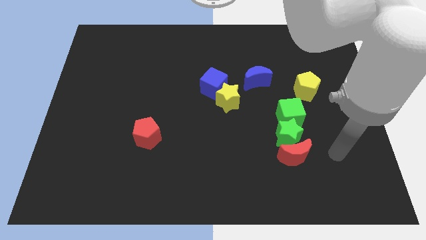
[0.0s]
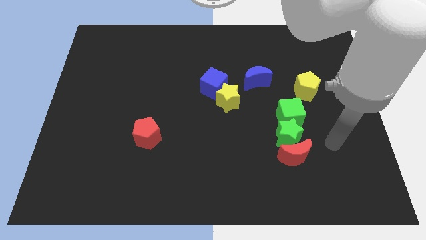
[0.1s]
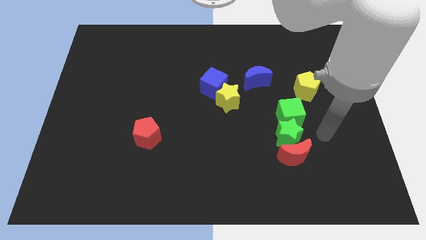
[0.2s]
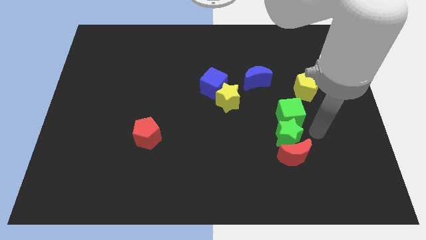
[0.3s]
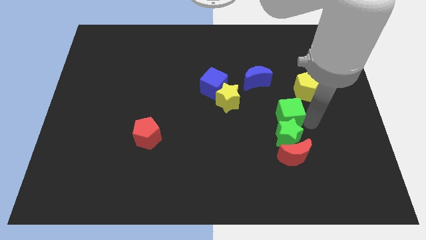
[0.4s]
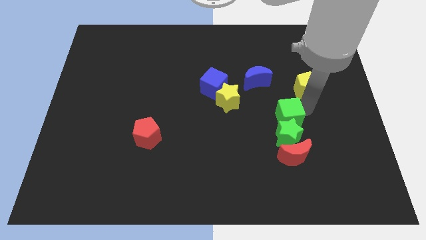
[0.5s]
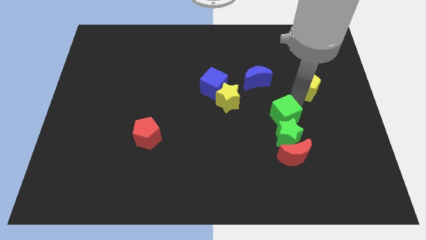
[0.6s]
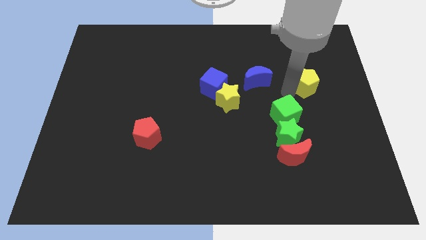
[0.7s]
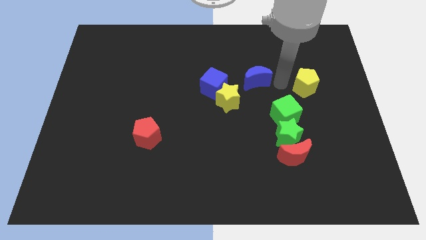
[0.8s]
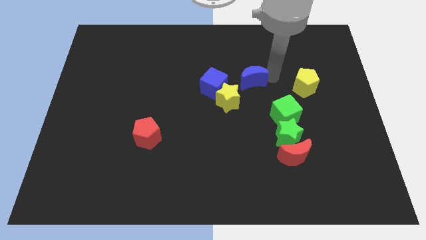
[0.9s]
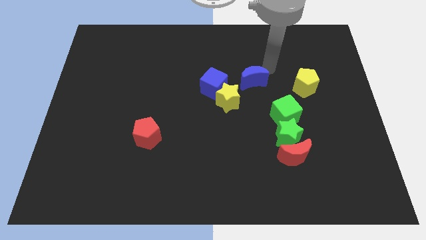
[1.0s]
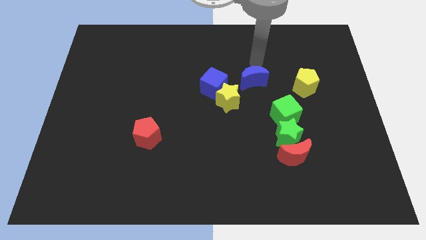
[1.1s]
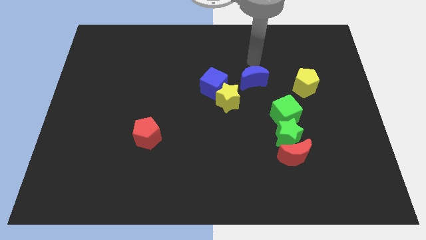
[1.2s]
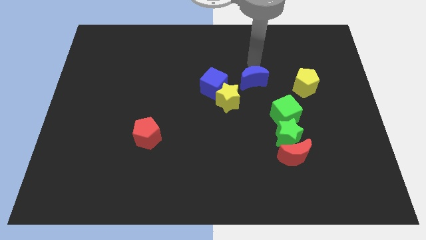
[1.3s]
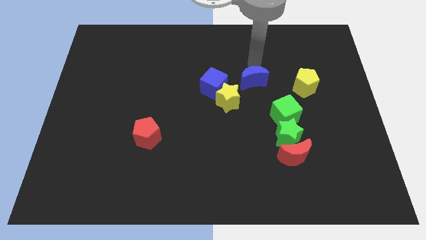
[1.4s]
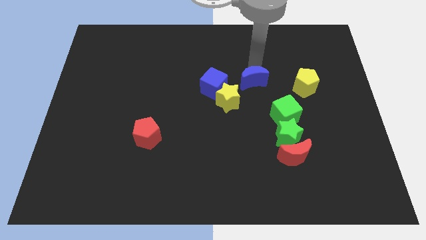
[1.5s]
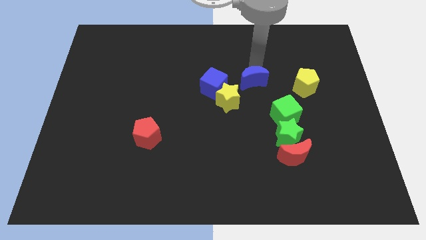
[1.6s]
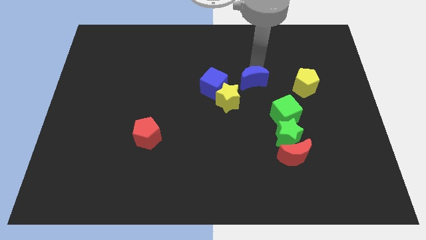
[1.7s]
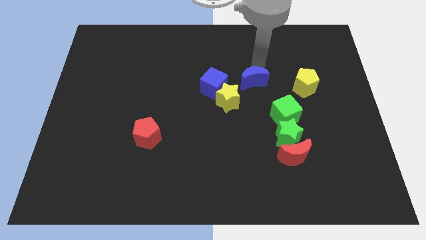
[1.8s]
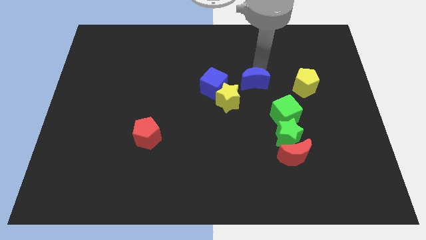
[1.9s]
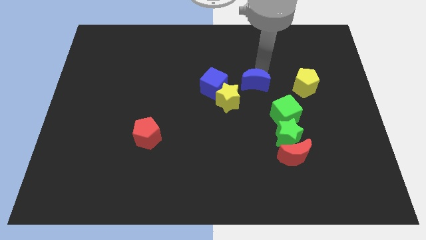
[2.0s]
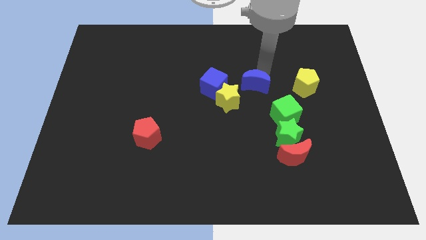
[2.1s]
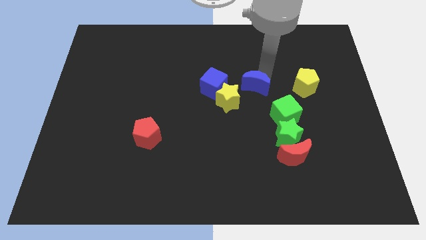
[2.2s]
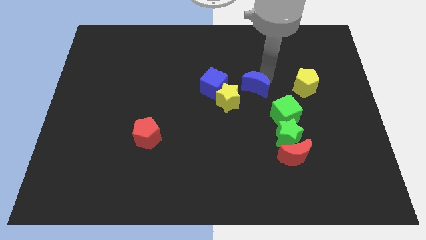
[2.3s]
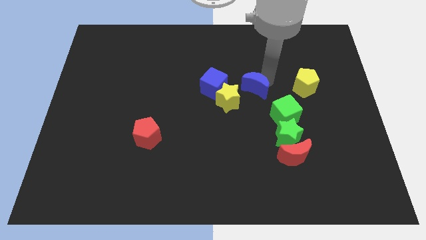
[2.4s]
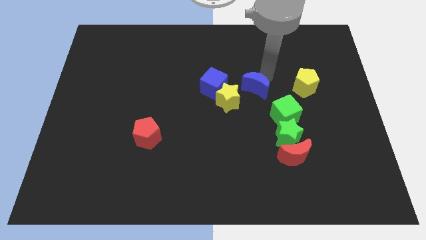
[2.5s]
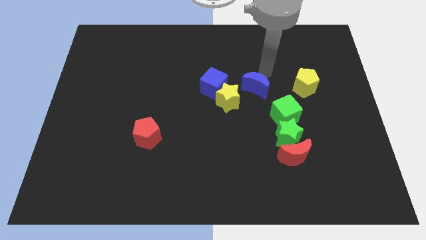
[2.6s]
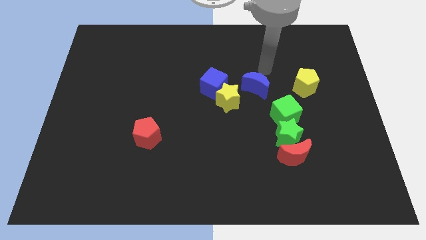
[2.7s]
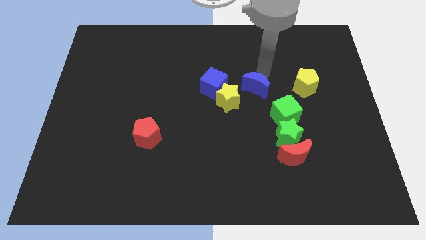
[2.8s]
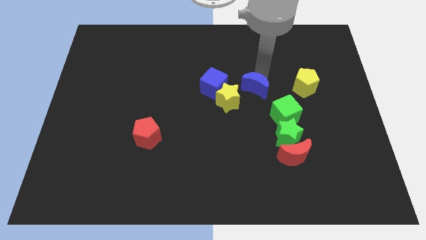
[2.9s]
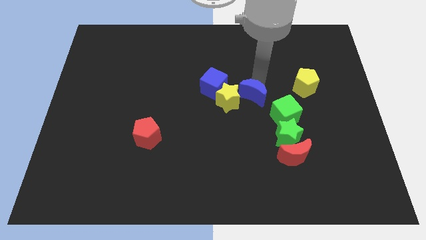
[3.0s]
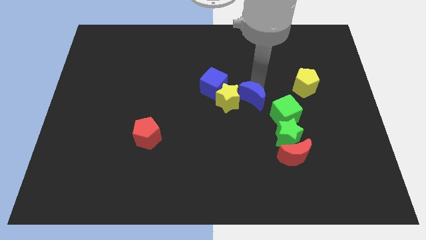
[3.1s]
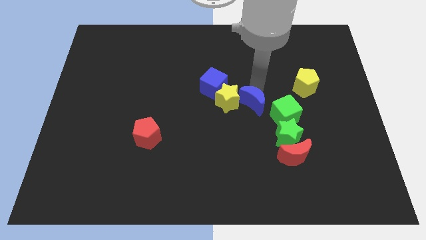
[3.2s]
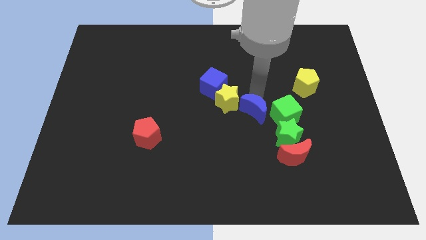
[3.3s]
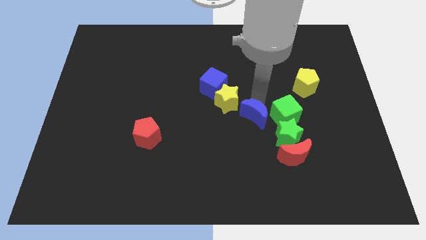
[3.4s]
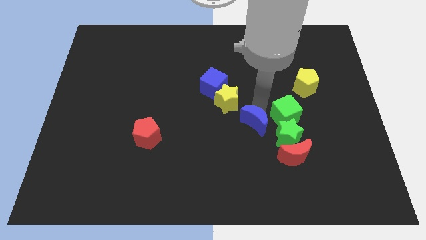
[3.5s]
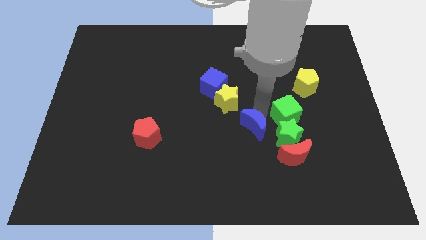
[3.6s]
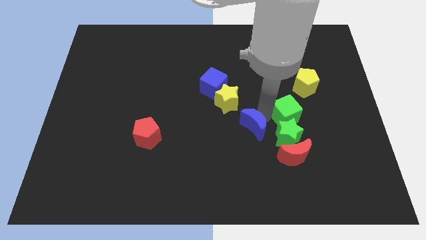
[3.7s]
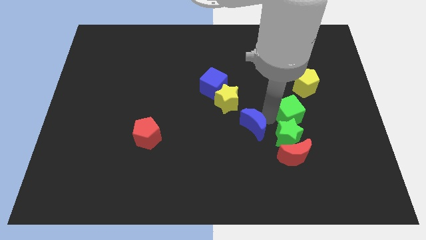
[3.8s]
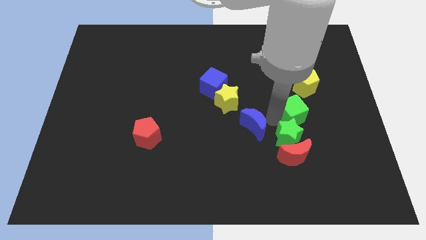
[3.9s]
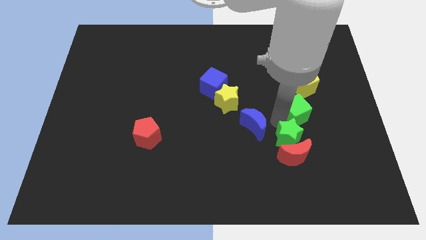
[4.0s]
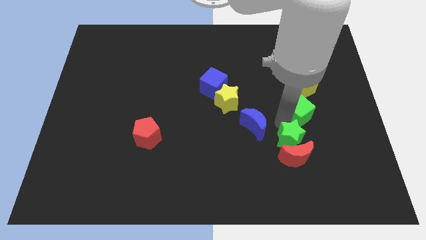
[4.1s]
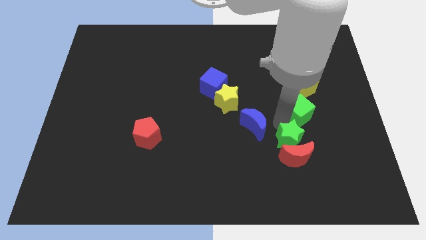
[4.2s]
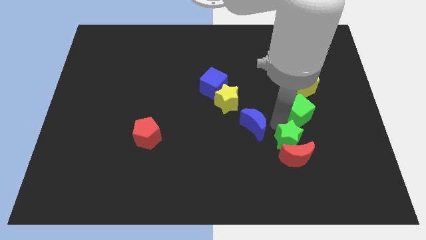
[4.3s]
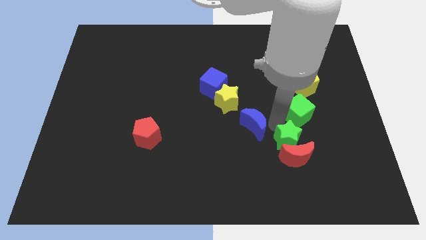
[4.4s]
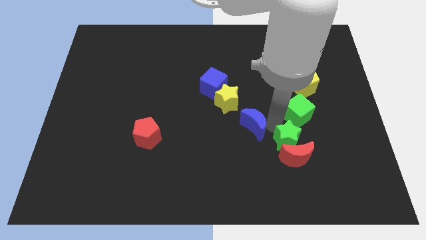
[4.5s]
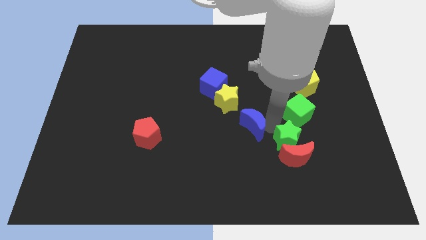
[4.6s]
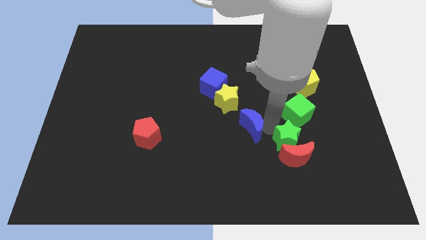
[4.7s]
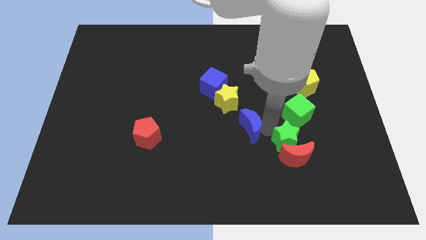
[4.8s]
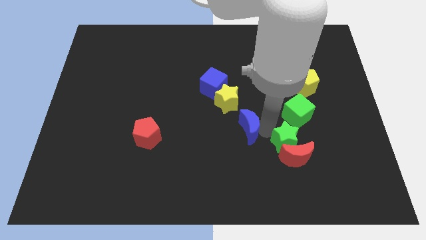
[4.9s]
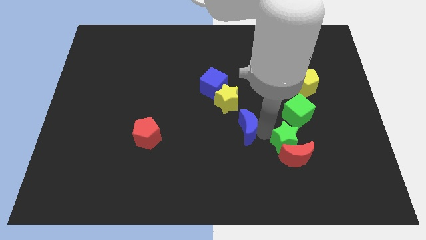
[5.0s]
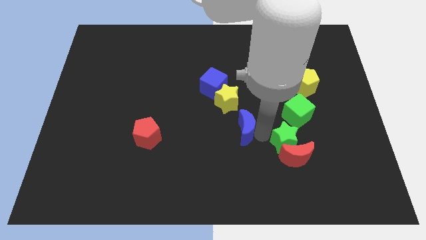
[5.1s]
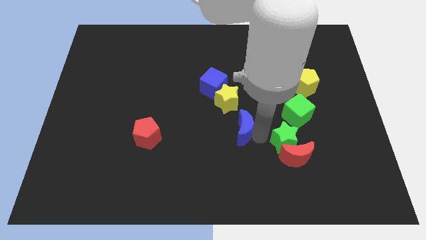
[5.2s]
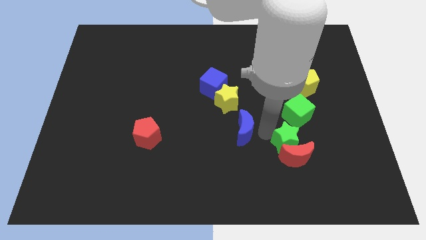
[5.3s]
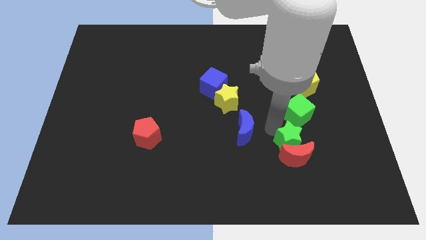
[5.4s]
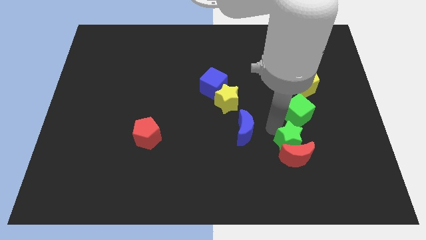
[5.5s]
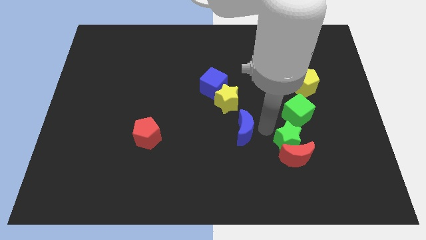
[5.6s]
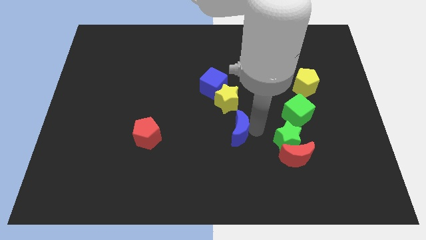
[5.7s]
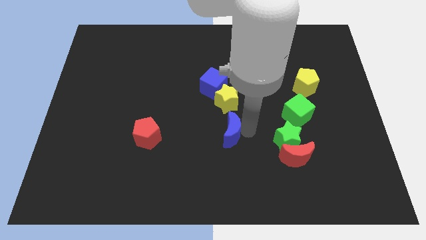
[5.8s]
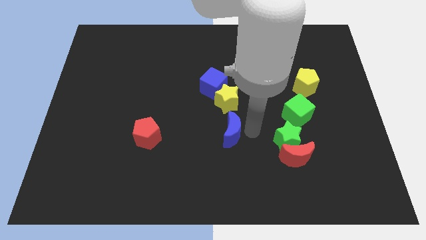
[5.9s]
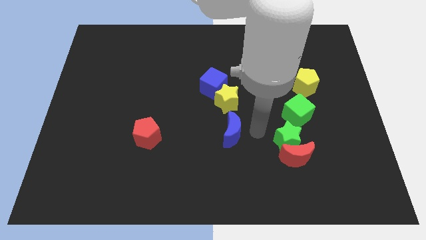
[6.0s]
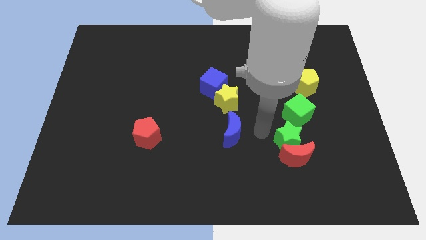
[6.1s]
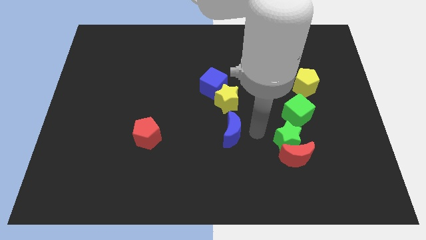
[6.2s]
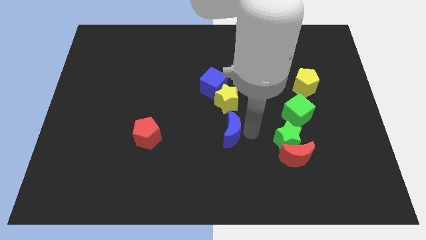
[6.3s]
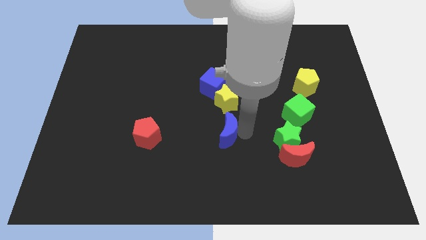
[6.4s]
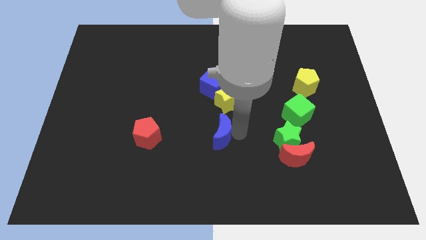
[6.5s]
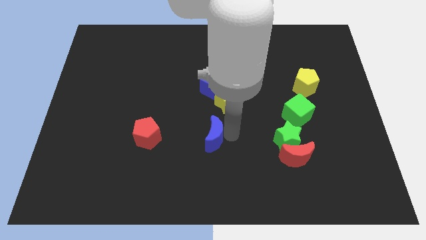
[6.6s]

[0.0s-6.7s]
put the blue moon to the right side of the red pentagon
